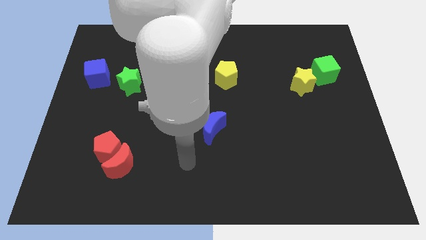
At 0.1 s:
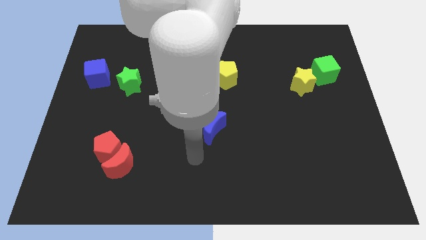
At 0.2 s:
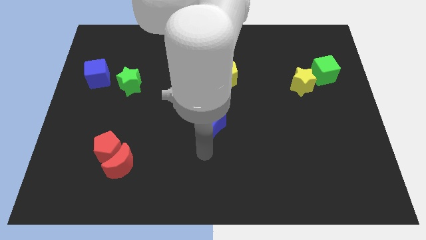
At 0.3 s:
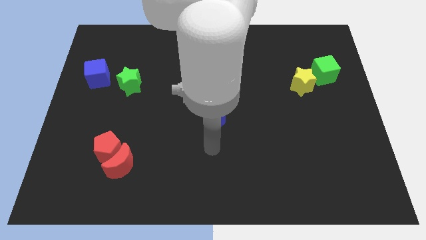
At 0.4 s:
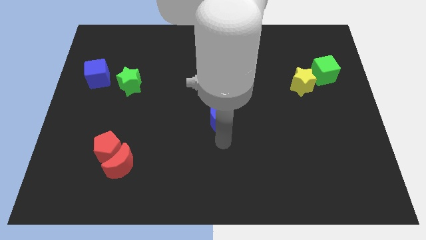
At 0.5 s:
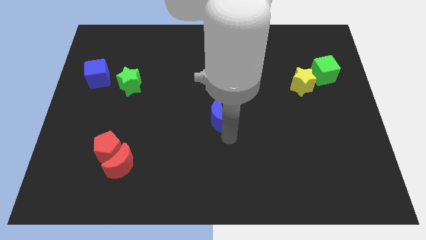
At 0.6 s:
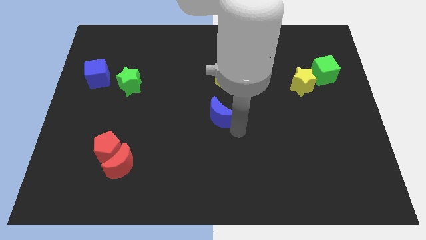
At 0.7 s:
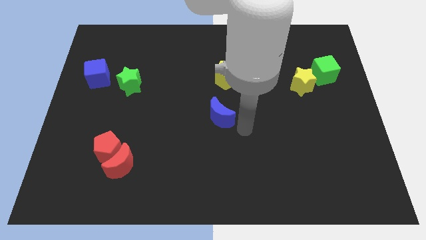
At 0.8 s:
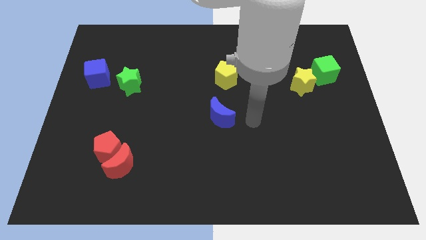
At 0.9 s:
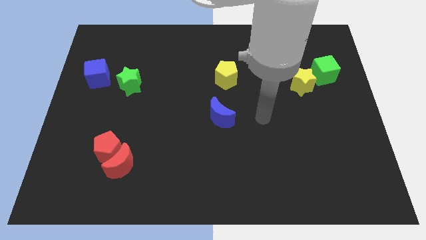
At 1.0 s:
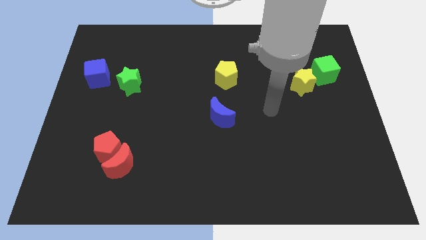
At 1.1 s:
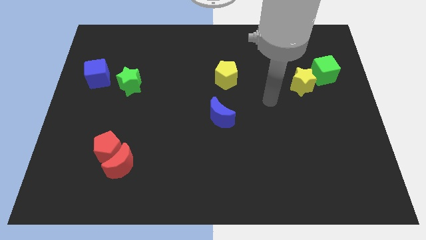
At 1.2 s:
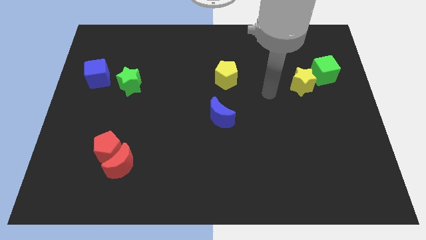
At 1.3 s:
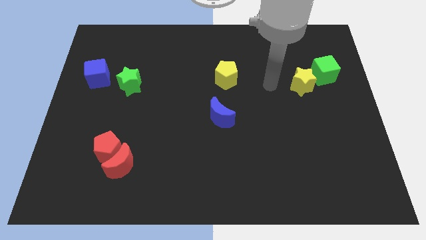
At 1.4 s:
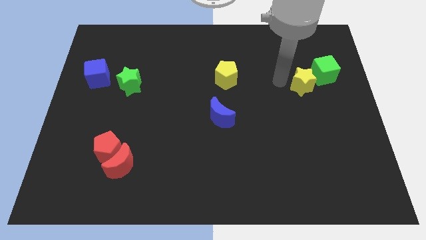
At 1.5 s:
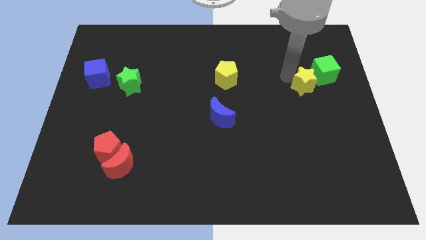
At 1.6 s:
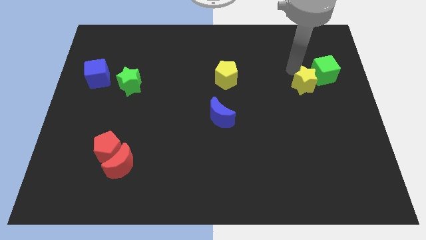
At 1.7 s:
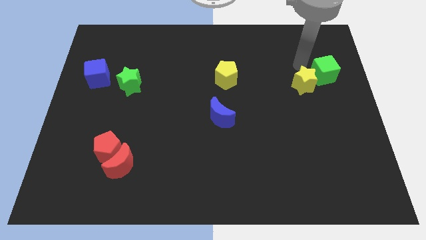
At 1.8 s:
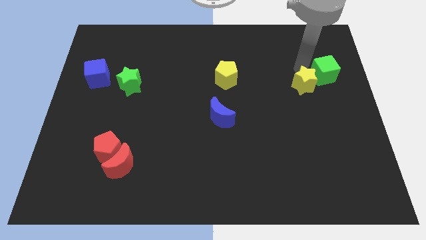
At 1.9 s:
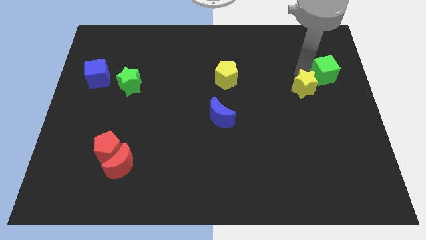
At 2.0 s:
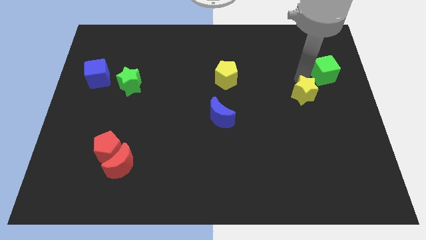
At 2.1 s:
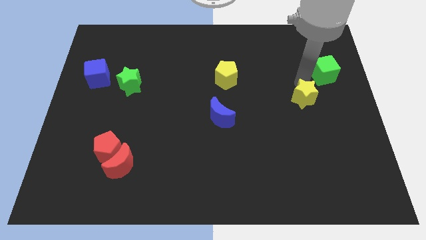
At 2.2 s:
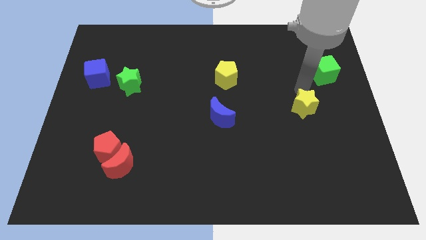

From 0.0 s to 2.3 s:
push the yellow star down somewhat

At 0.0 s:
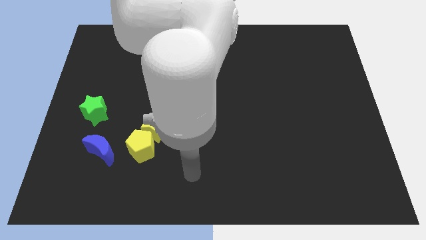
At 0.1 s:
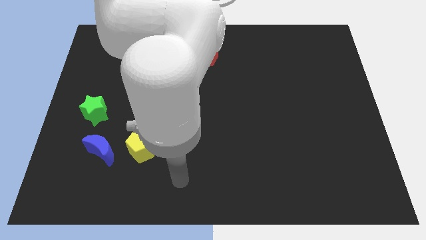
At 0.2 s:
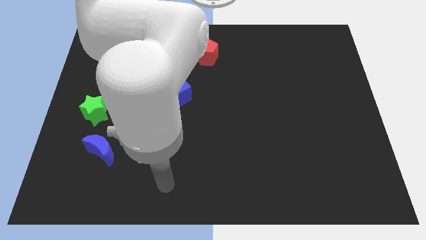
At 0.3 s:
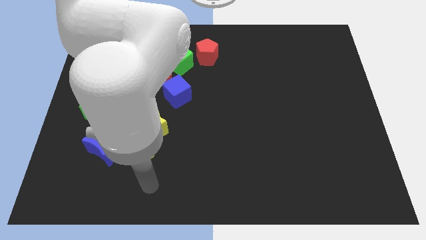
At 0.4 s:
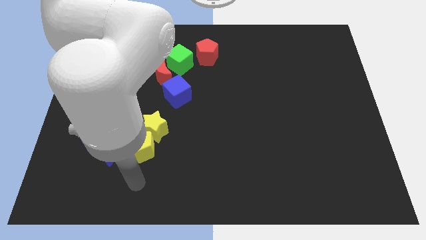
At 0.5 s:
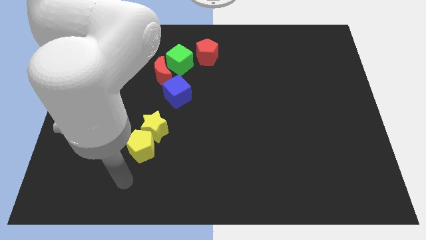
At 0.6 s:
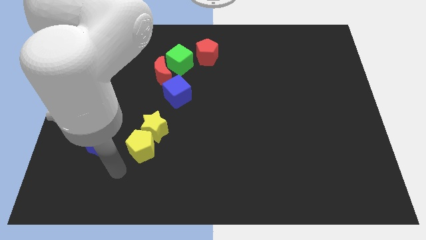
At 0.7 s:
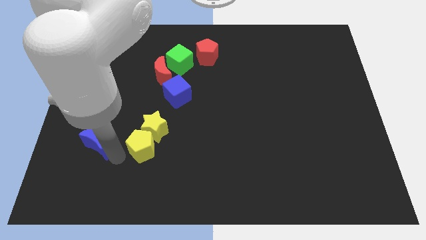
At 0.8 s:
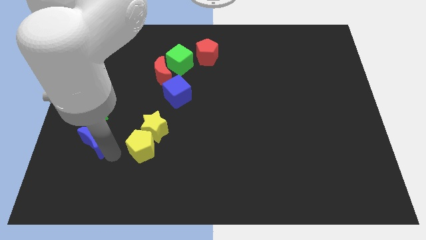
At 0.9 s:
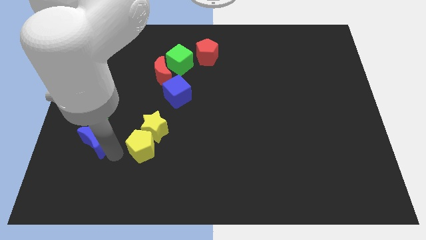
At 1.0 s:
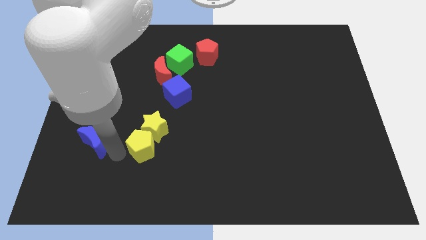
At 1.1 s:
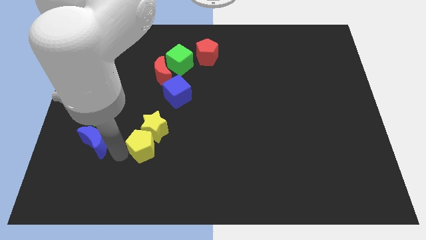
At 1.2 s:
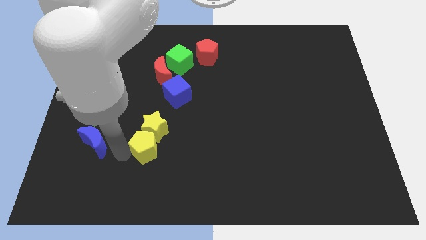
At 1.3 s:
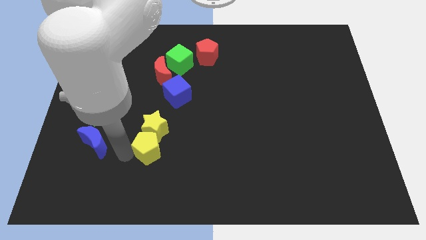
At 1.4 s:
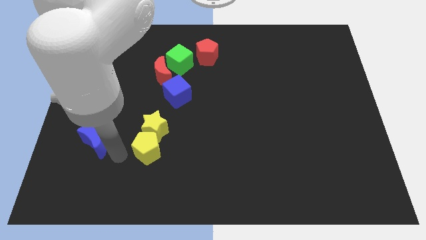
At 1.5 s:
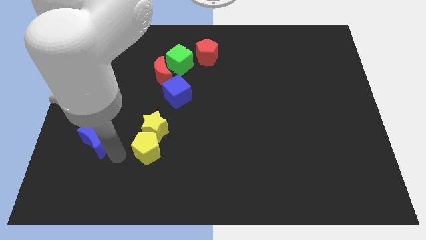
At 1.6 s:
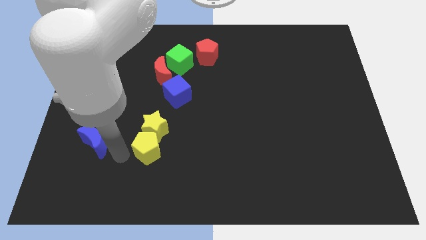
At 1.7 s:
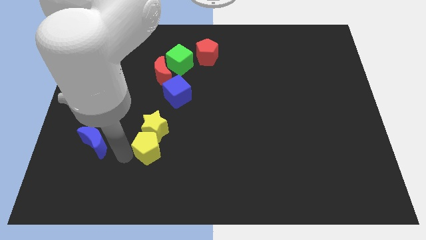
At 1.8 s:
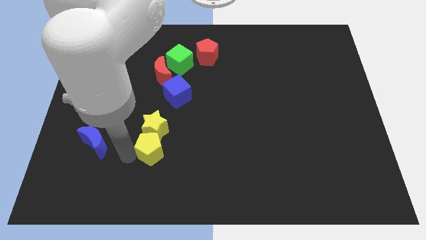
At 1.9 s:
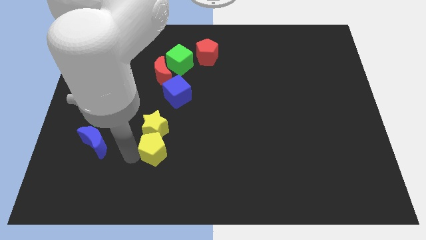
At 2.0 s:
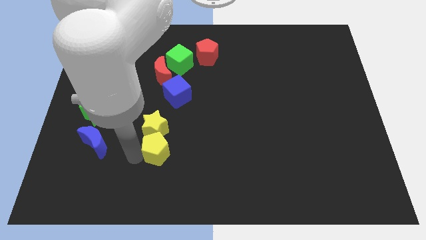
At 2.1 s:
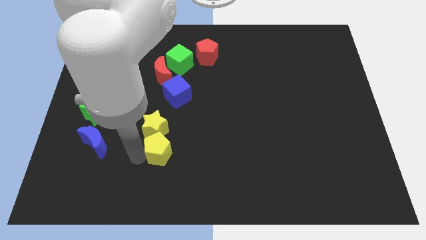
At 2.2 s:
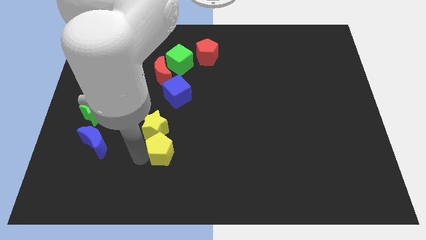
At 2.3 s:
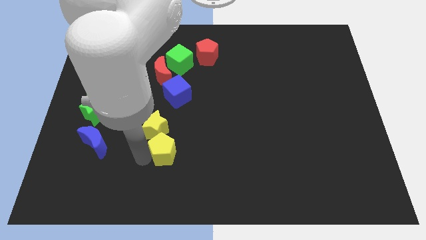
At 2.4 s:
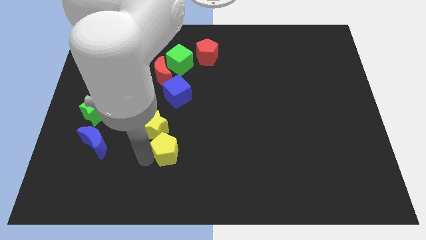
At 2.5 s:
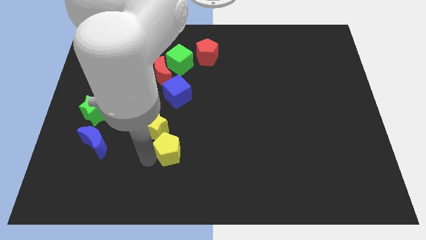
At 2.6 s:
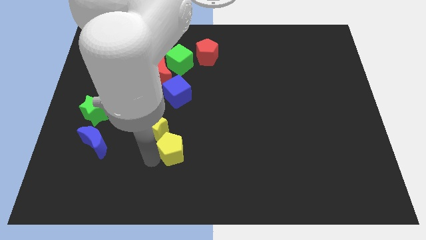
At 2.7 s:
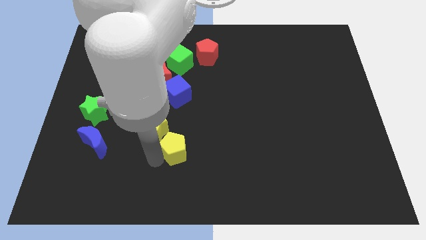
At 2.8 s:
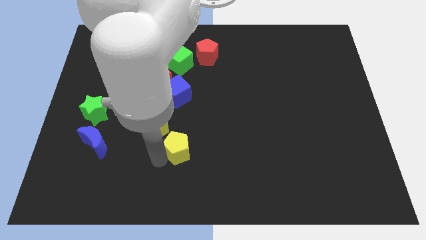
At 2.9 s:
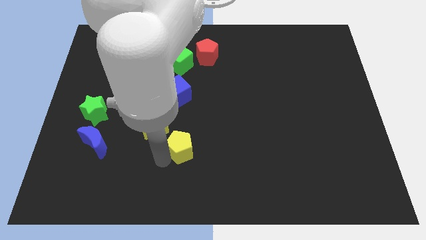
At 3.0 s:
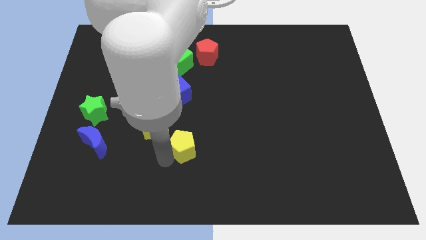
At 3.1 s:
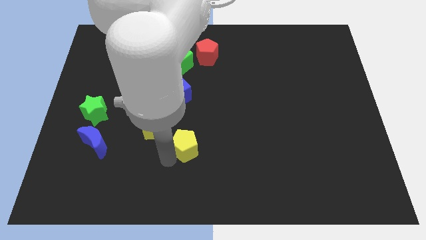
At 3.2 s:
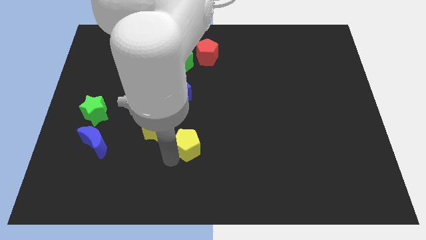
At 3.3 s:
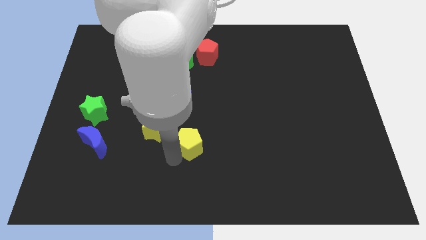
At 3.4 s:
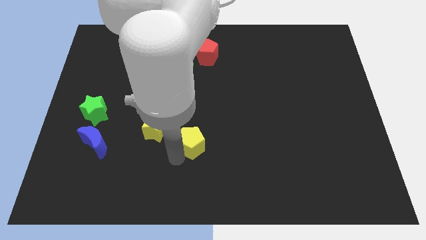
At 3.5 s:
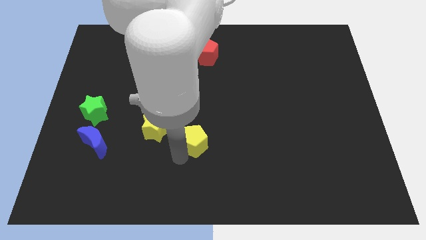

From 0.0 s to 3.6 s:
push the yellow pentagon a little diagonally up and to the right

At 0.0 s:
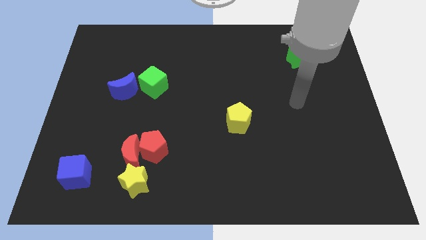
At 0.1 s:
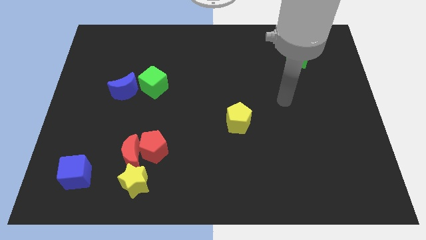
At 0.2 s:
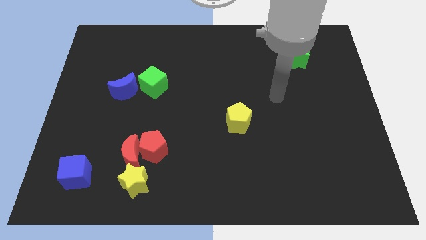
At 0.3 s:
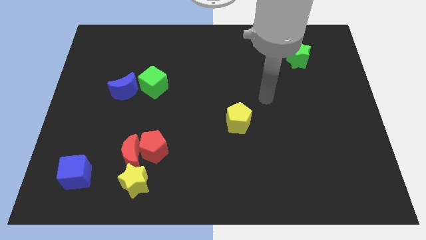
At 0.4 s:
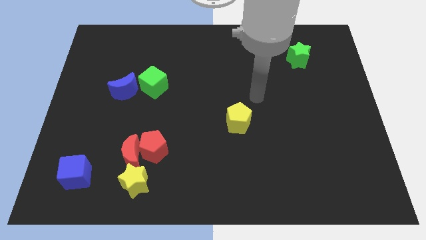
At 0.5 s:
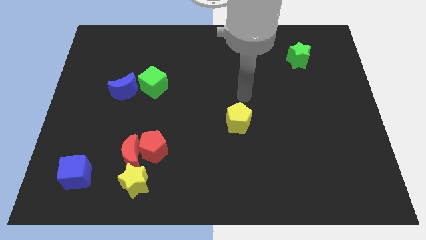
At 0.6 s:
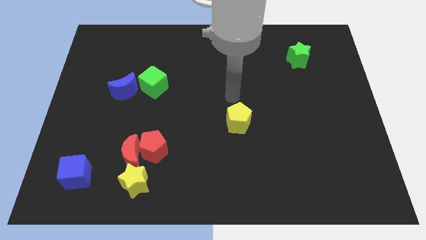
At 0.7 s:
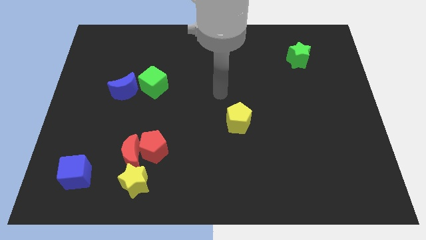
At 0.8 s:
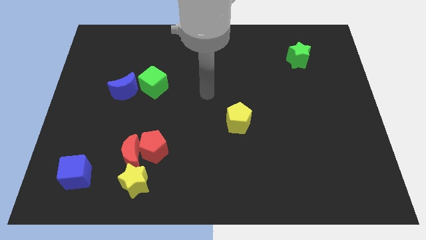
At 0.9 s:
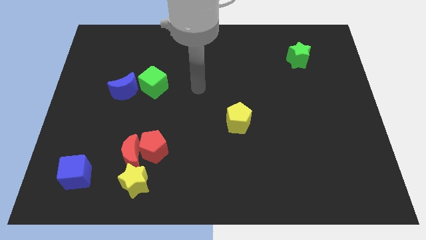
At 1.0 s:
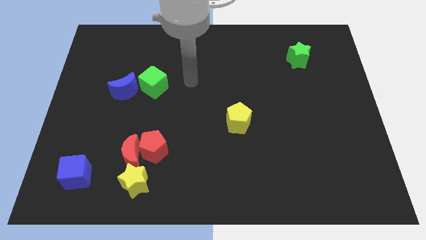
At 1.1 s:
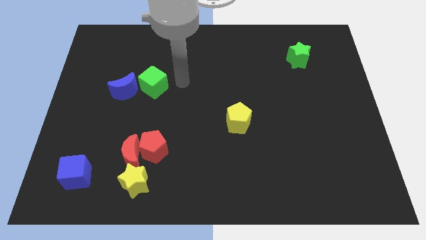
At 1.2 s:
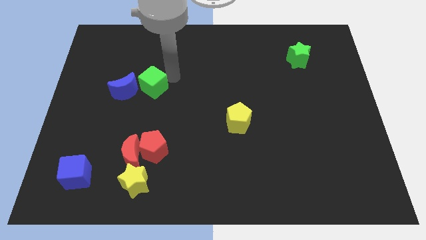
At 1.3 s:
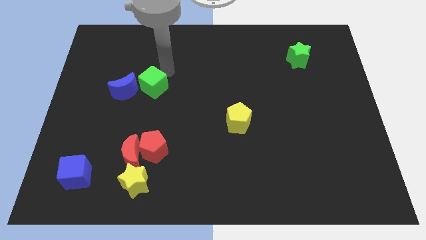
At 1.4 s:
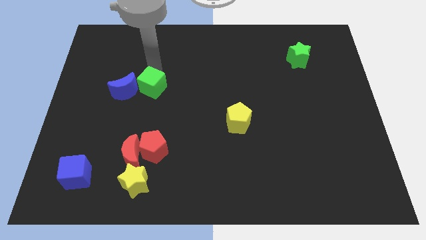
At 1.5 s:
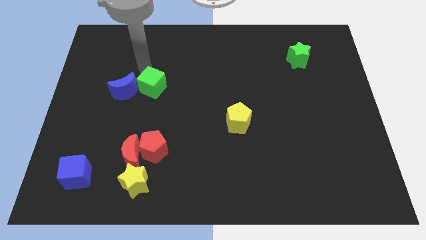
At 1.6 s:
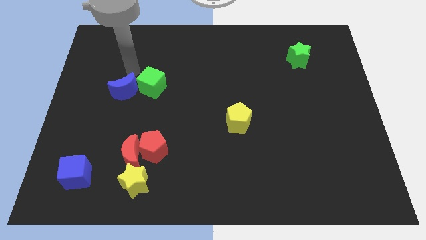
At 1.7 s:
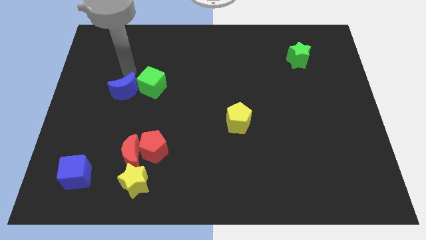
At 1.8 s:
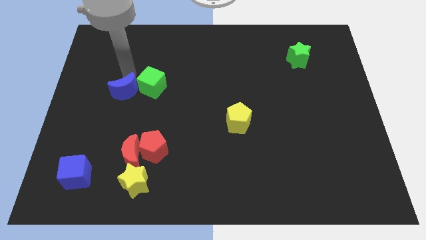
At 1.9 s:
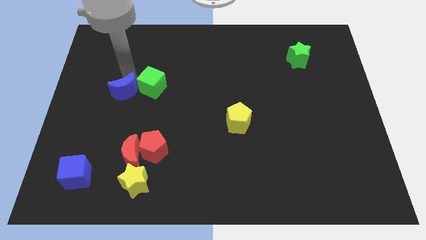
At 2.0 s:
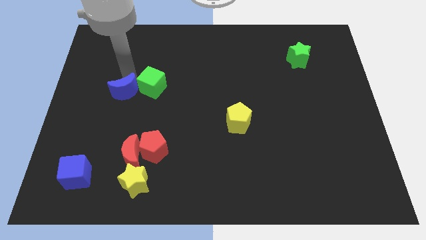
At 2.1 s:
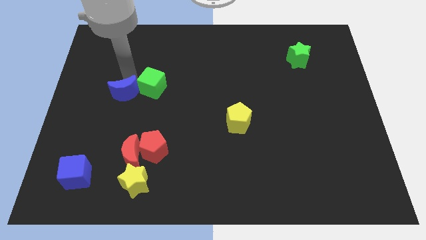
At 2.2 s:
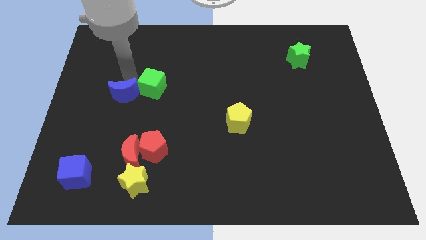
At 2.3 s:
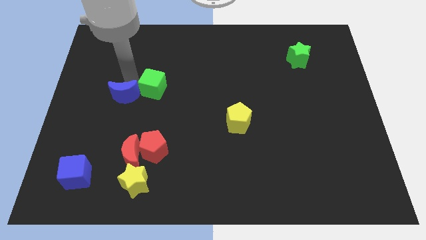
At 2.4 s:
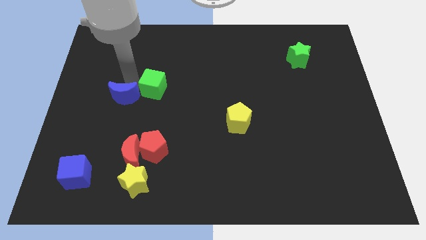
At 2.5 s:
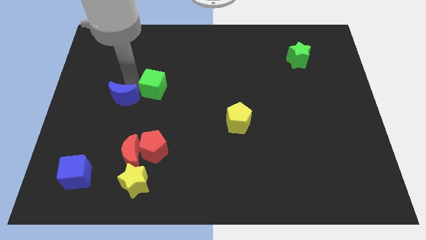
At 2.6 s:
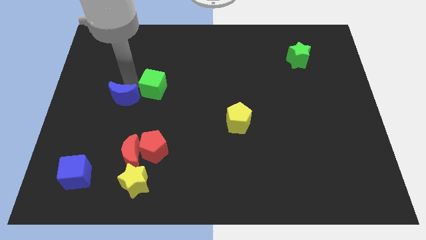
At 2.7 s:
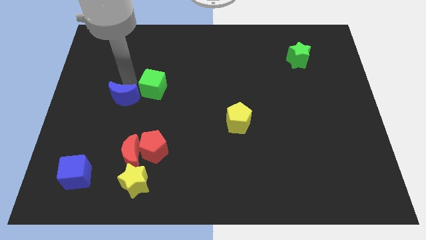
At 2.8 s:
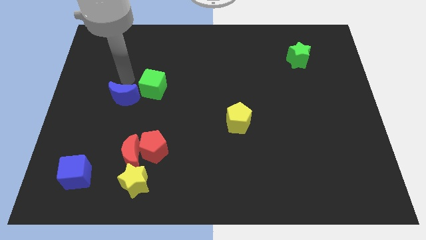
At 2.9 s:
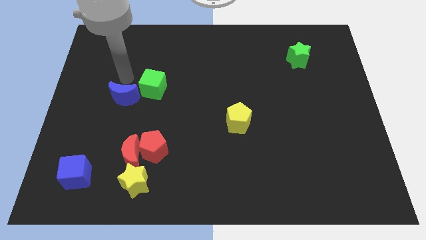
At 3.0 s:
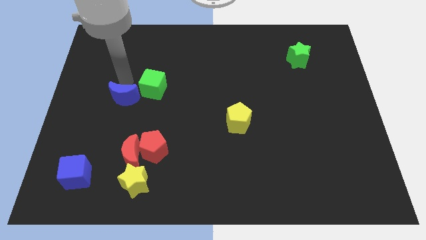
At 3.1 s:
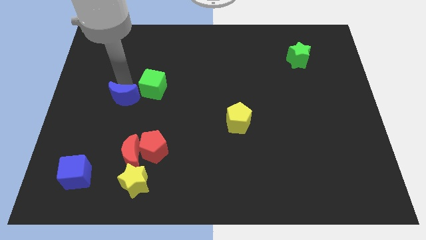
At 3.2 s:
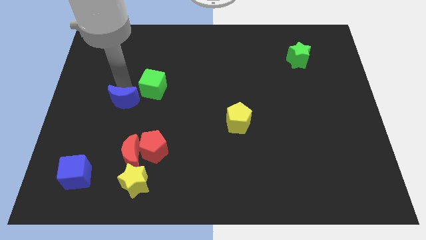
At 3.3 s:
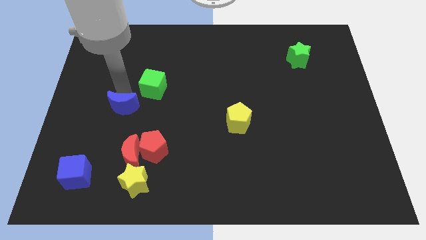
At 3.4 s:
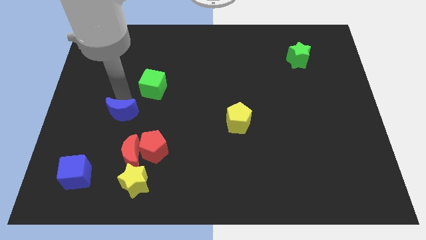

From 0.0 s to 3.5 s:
slide the blue moon down a little bit
